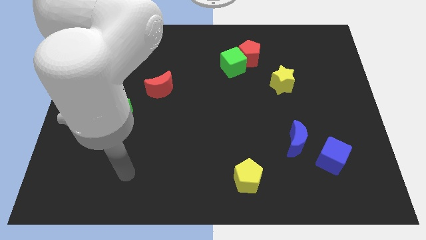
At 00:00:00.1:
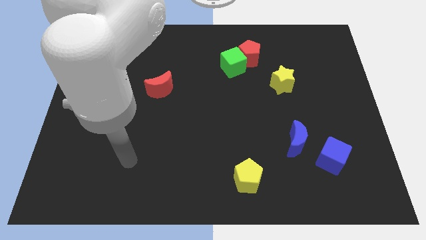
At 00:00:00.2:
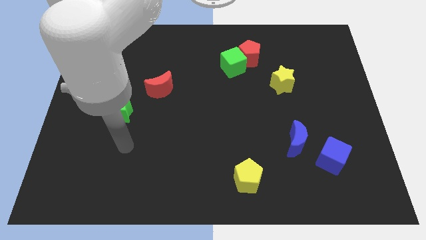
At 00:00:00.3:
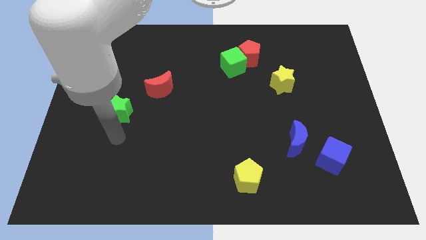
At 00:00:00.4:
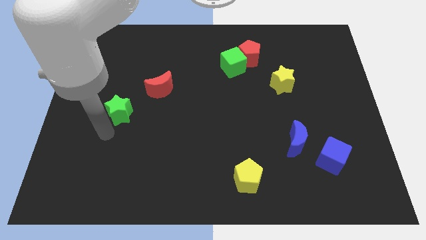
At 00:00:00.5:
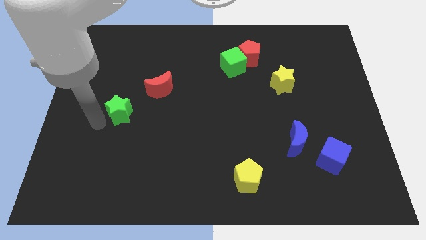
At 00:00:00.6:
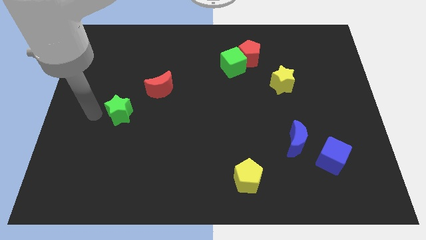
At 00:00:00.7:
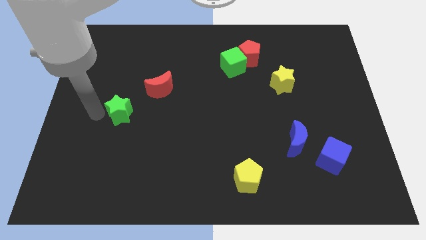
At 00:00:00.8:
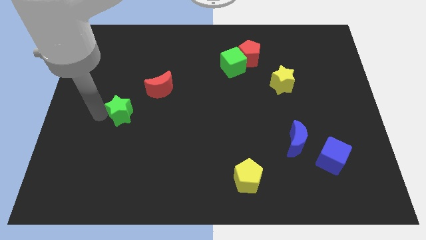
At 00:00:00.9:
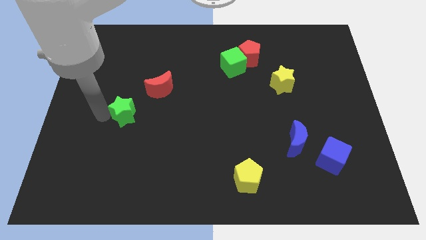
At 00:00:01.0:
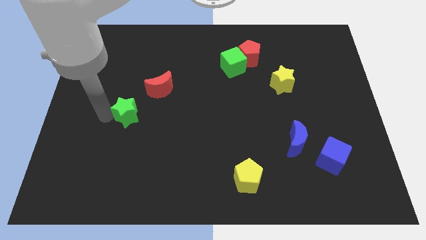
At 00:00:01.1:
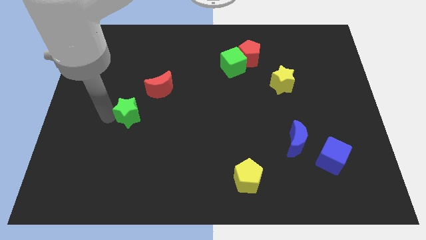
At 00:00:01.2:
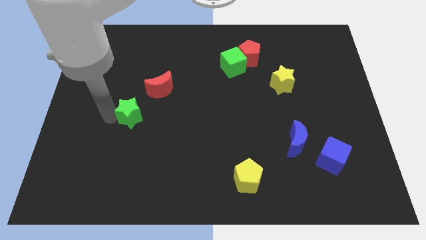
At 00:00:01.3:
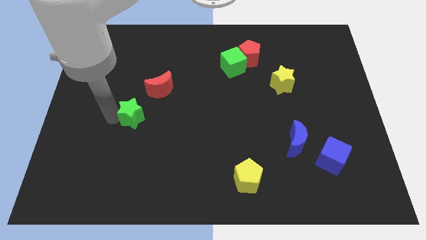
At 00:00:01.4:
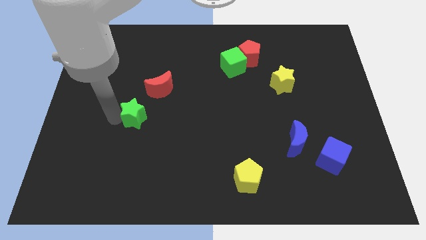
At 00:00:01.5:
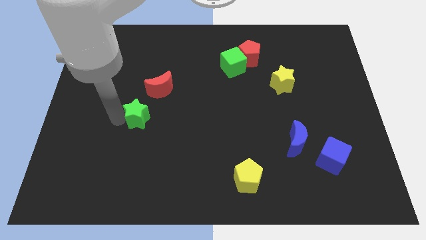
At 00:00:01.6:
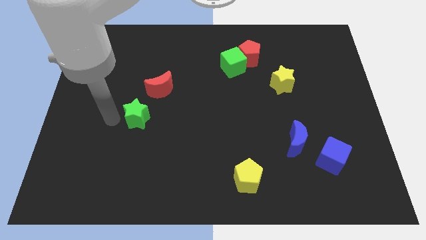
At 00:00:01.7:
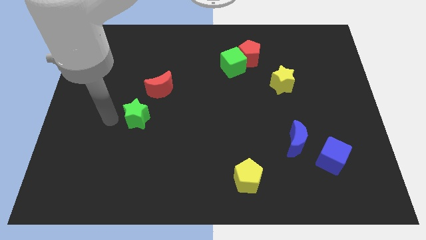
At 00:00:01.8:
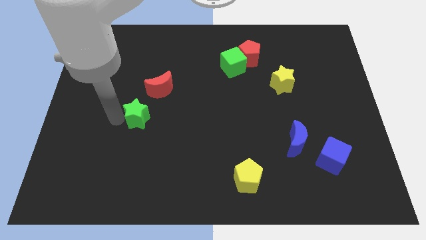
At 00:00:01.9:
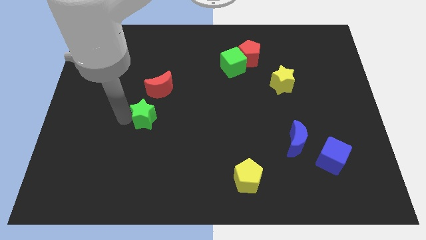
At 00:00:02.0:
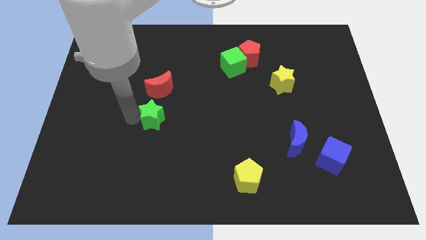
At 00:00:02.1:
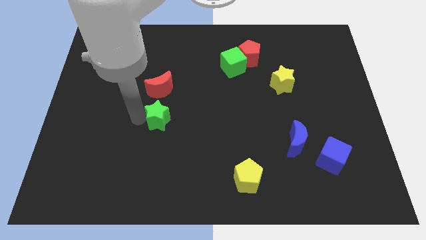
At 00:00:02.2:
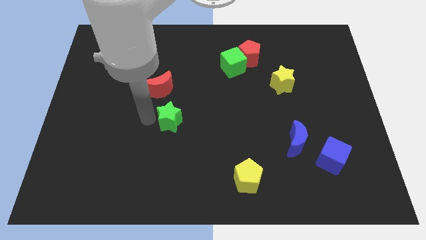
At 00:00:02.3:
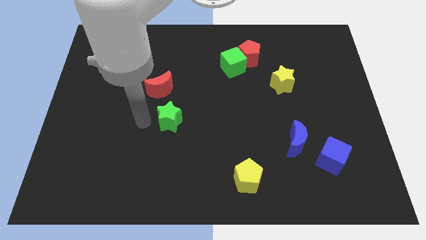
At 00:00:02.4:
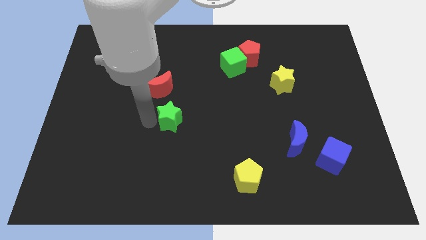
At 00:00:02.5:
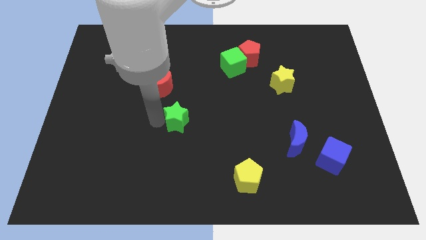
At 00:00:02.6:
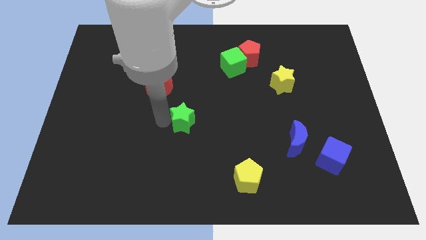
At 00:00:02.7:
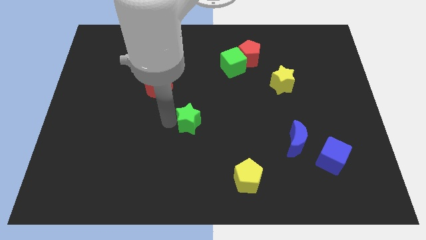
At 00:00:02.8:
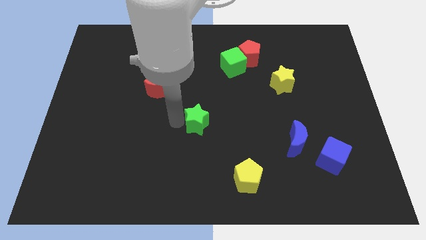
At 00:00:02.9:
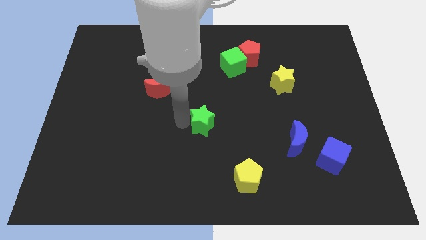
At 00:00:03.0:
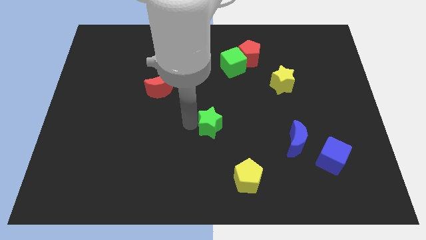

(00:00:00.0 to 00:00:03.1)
move the green star right

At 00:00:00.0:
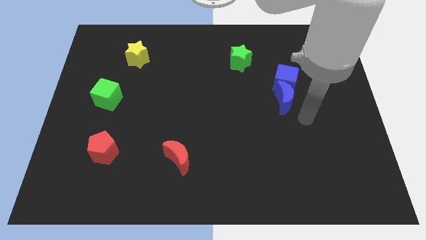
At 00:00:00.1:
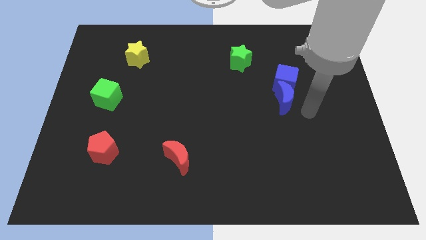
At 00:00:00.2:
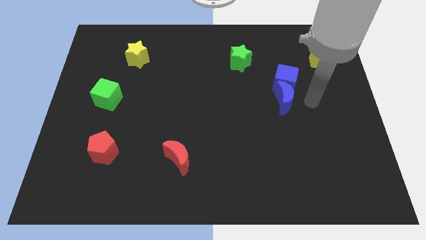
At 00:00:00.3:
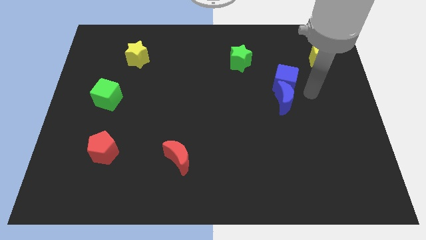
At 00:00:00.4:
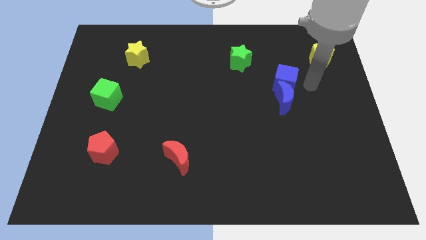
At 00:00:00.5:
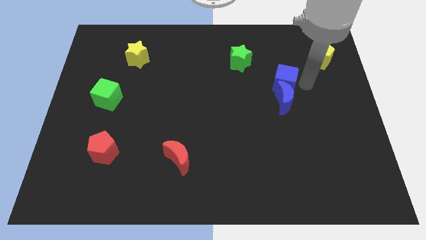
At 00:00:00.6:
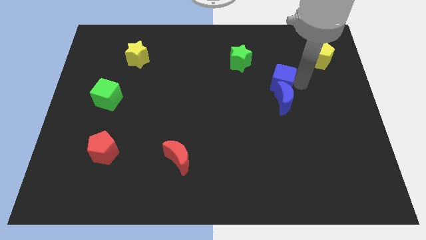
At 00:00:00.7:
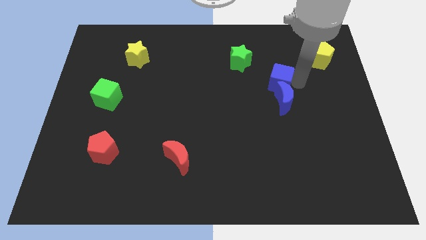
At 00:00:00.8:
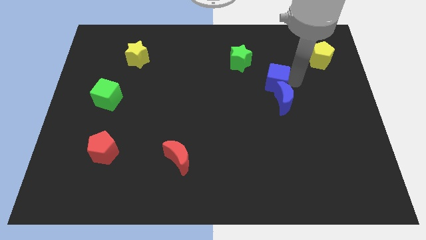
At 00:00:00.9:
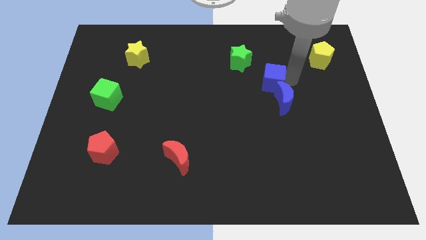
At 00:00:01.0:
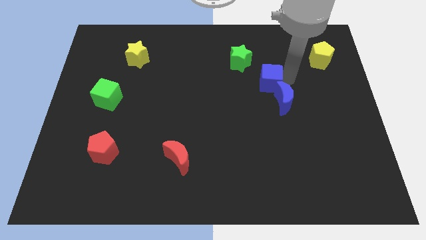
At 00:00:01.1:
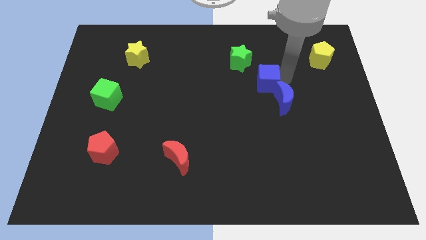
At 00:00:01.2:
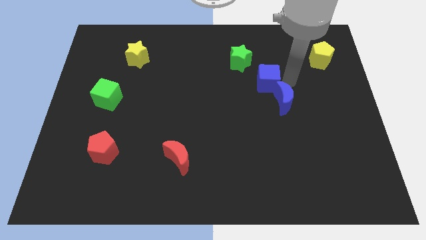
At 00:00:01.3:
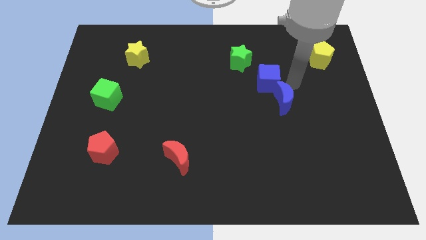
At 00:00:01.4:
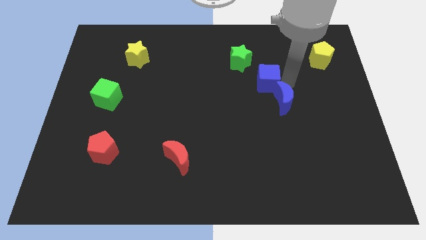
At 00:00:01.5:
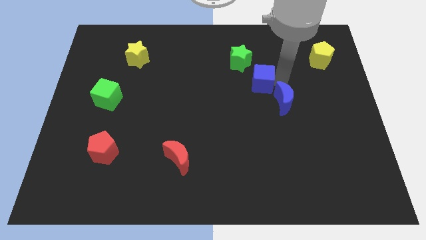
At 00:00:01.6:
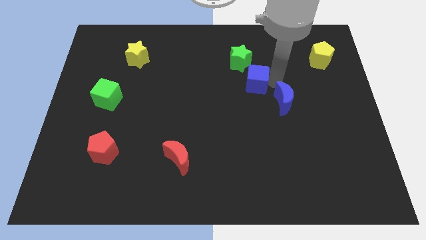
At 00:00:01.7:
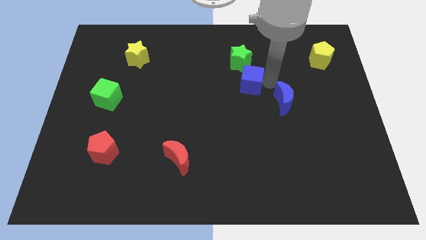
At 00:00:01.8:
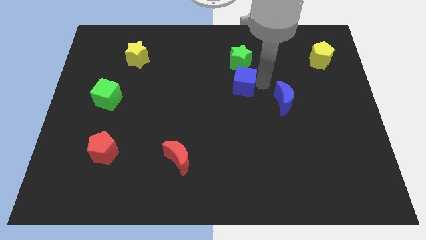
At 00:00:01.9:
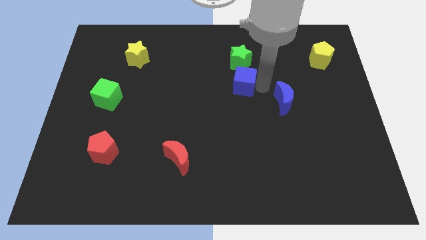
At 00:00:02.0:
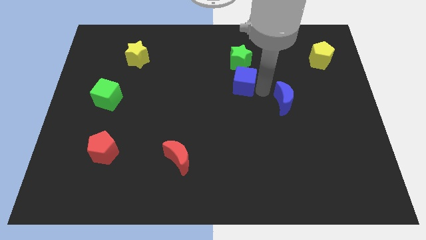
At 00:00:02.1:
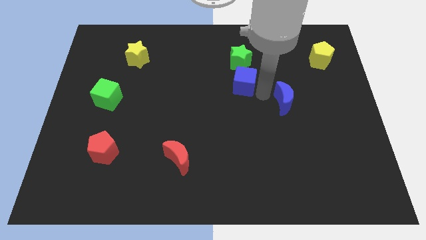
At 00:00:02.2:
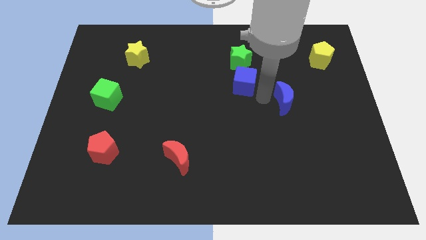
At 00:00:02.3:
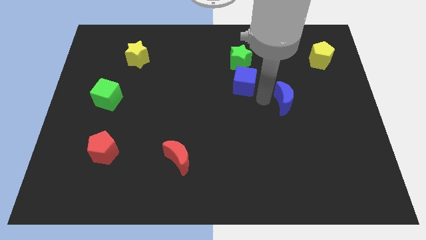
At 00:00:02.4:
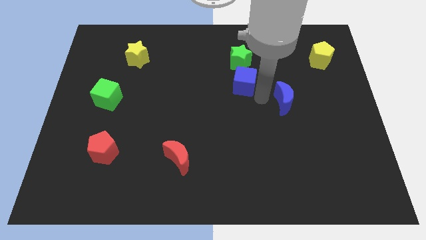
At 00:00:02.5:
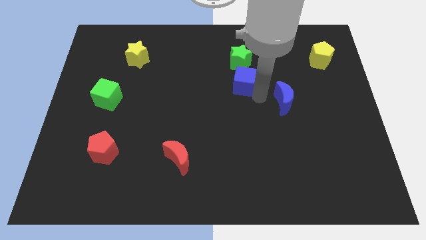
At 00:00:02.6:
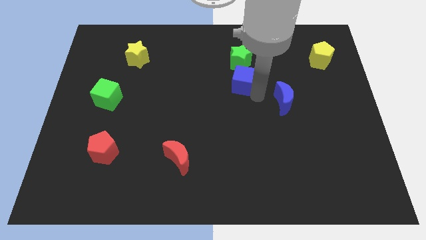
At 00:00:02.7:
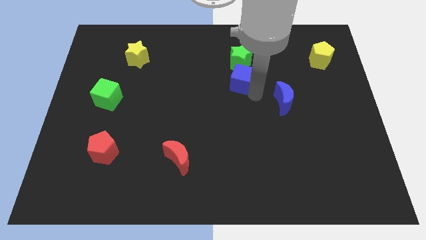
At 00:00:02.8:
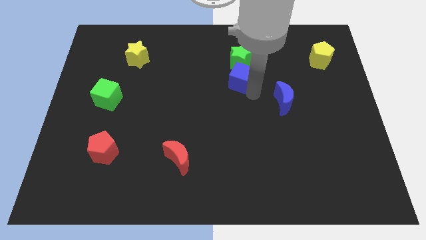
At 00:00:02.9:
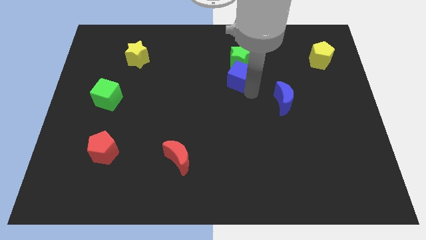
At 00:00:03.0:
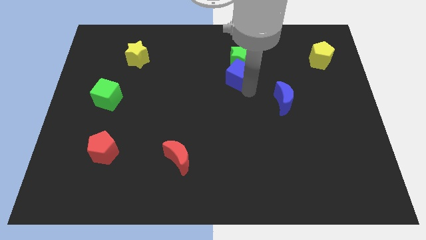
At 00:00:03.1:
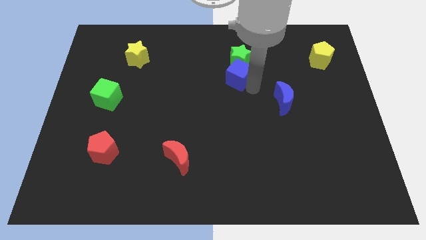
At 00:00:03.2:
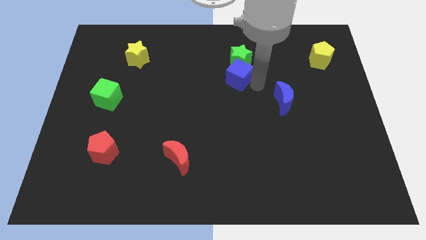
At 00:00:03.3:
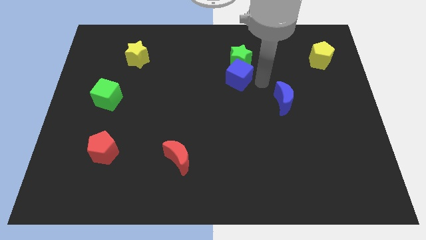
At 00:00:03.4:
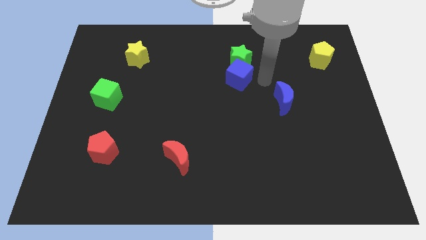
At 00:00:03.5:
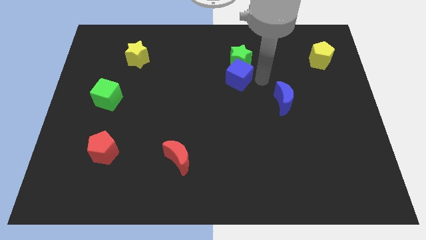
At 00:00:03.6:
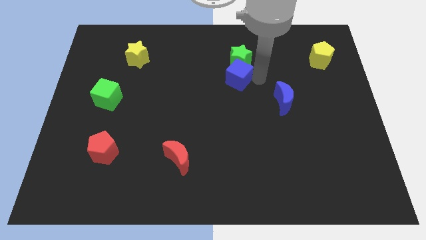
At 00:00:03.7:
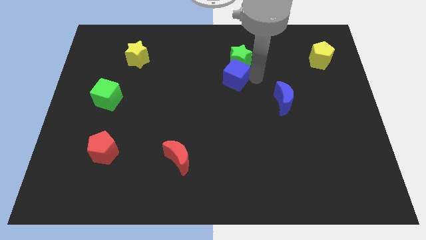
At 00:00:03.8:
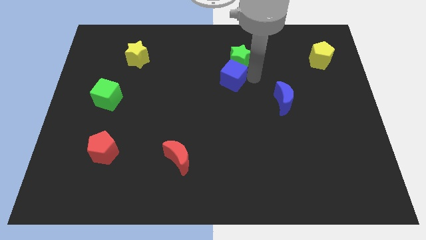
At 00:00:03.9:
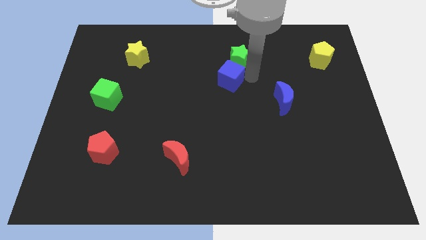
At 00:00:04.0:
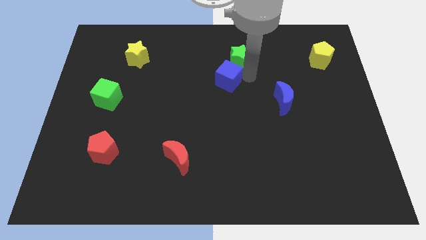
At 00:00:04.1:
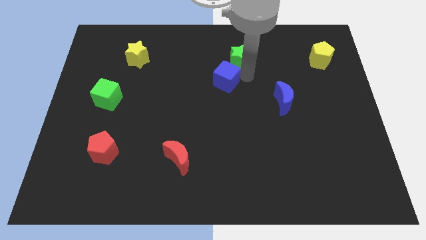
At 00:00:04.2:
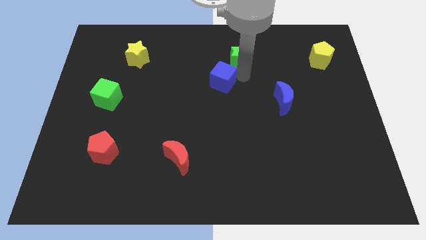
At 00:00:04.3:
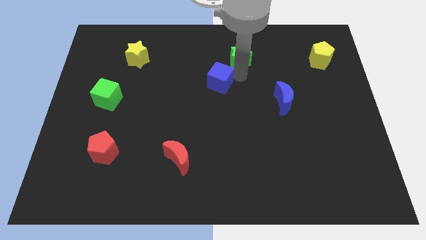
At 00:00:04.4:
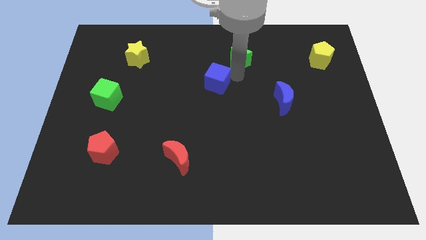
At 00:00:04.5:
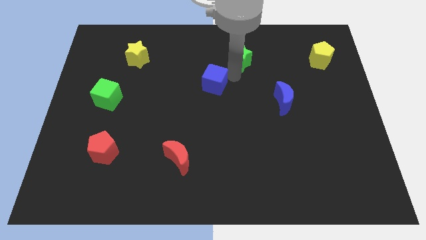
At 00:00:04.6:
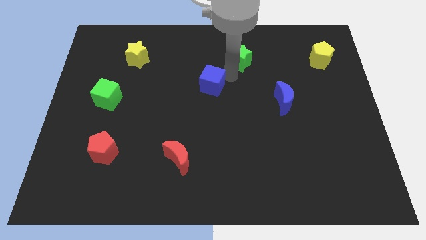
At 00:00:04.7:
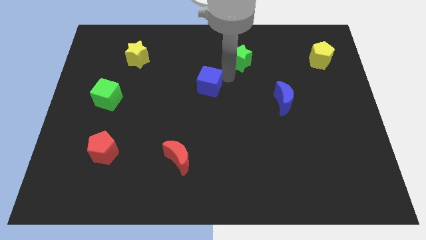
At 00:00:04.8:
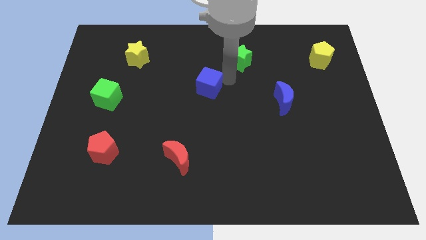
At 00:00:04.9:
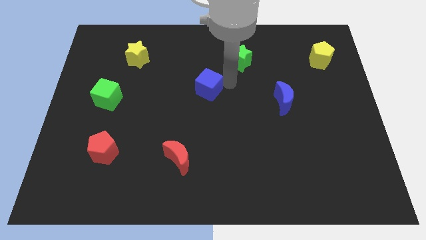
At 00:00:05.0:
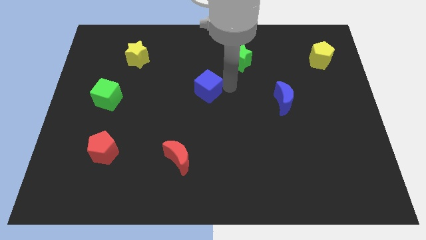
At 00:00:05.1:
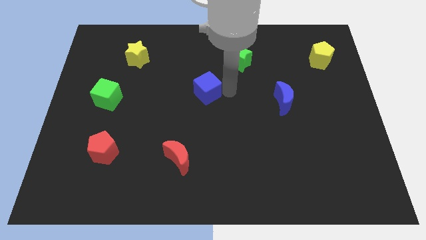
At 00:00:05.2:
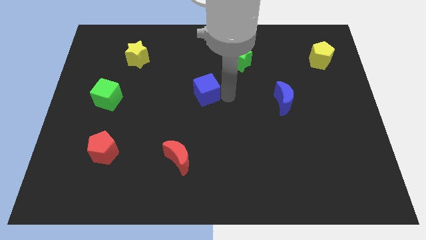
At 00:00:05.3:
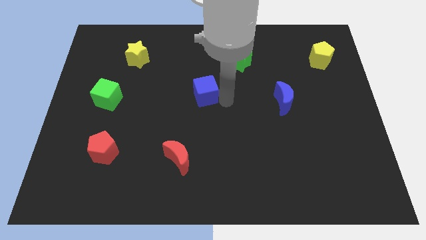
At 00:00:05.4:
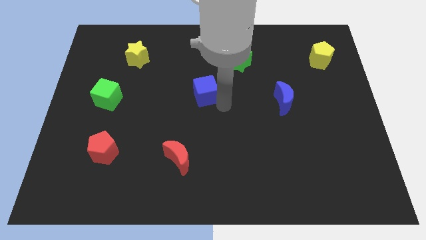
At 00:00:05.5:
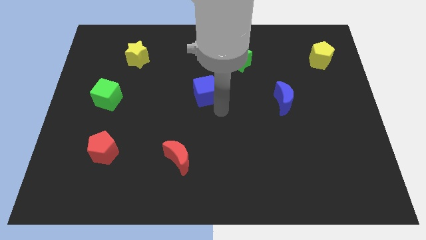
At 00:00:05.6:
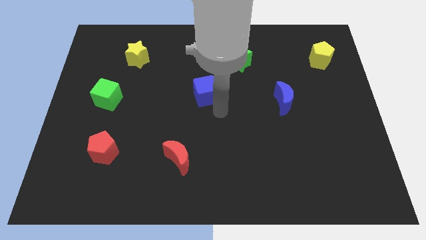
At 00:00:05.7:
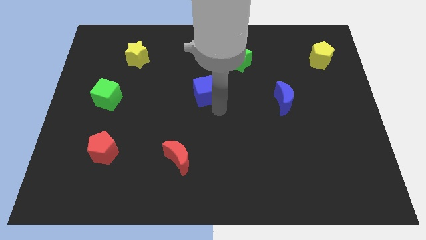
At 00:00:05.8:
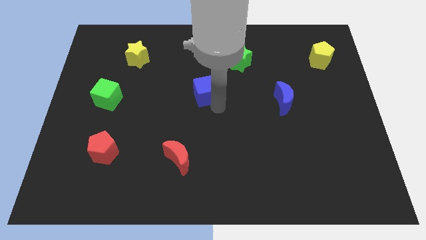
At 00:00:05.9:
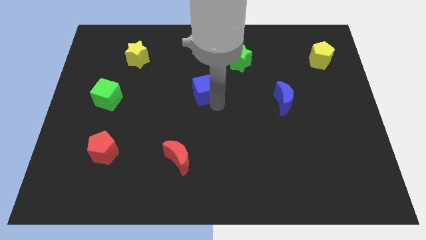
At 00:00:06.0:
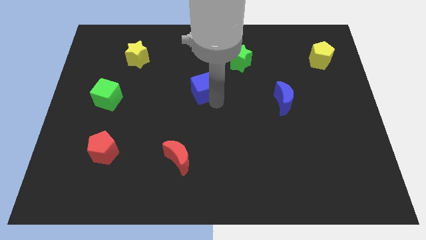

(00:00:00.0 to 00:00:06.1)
slide the blue cube to the left
